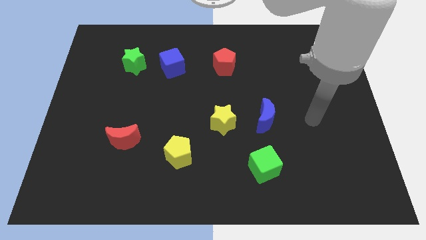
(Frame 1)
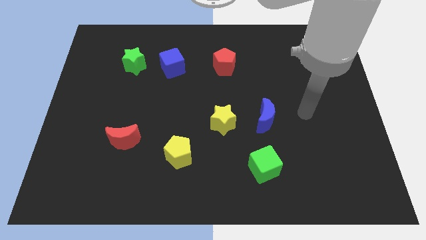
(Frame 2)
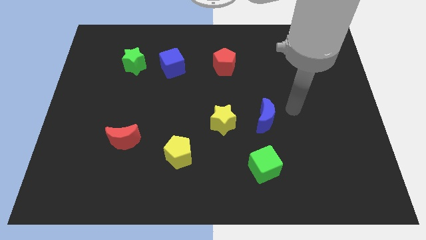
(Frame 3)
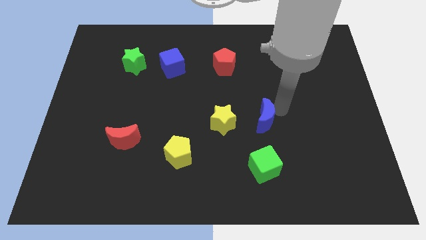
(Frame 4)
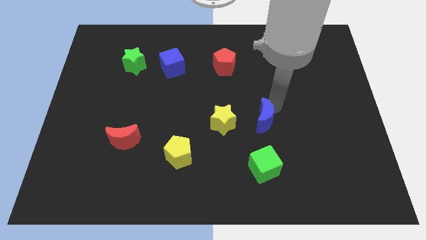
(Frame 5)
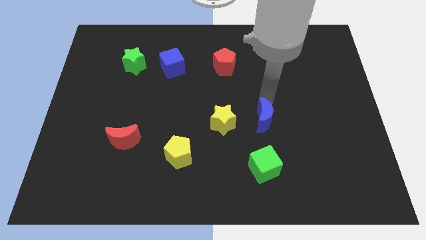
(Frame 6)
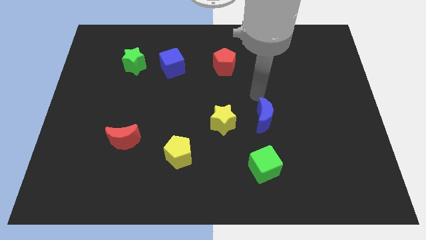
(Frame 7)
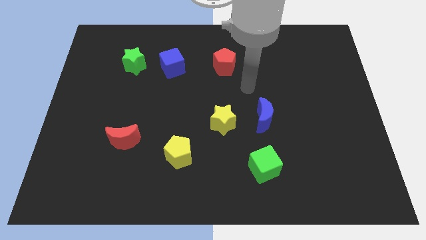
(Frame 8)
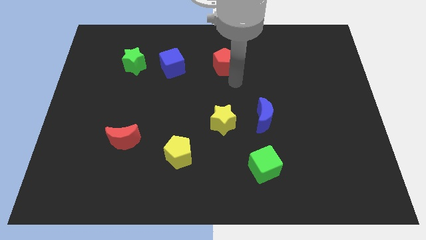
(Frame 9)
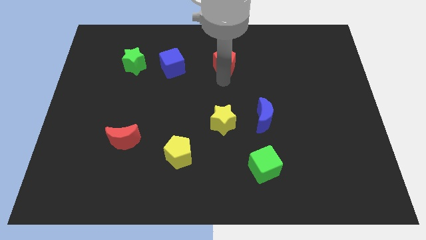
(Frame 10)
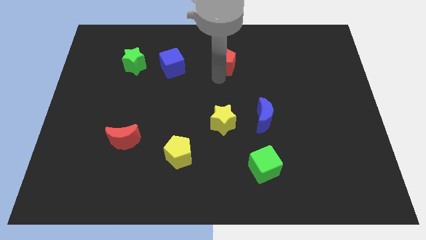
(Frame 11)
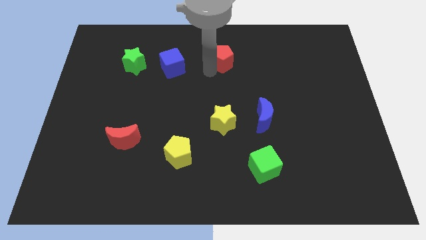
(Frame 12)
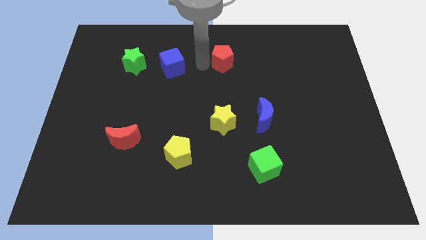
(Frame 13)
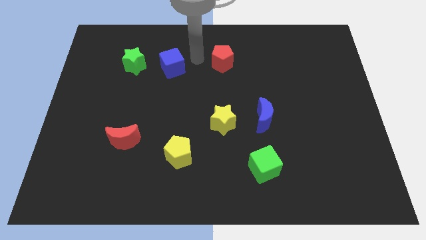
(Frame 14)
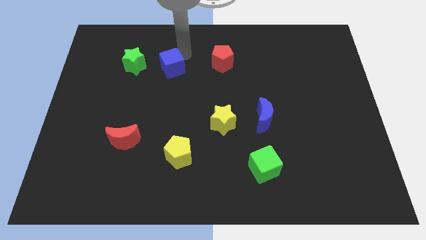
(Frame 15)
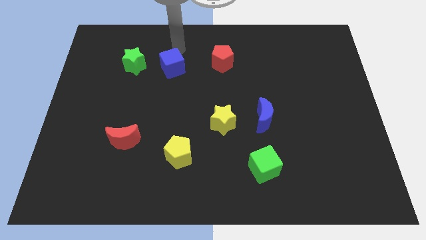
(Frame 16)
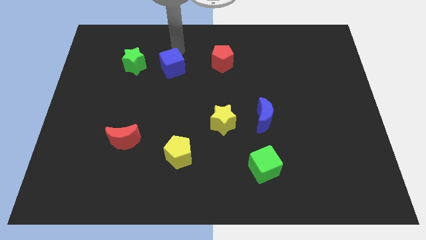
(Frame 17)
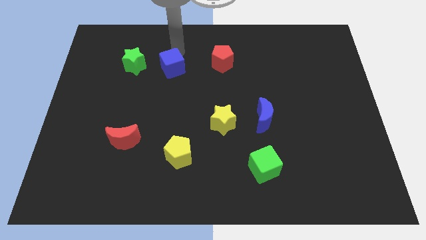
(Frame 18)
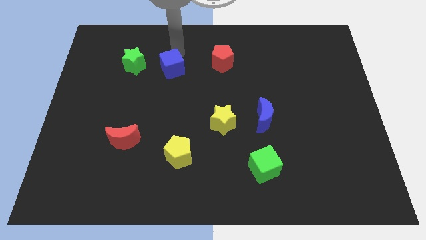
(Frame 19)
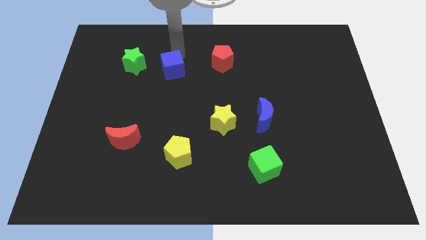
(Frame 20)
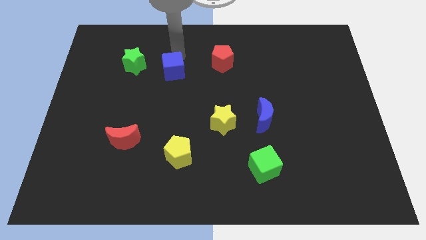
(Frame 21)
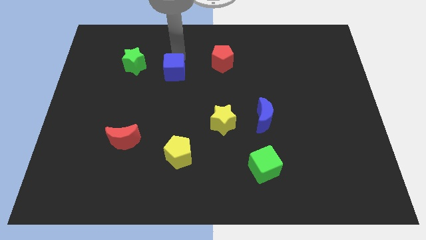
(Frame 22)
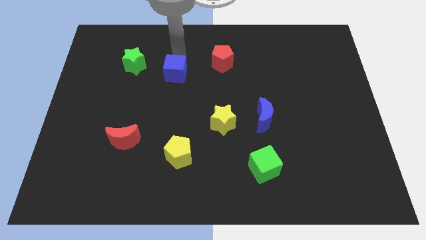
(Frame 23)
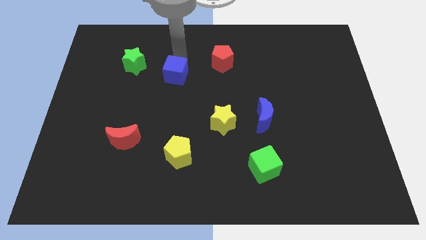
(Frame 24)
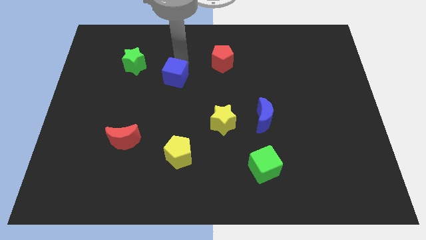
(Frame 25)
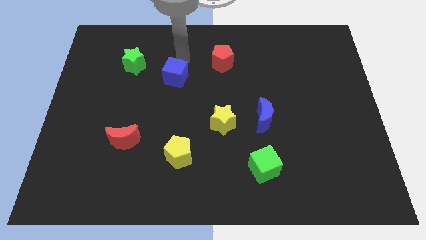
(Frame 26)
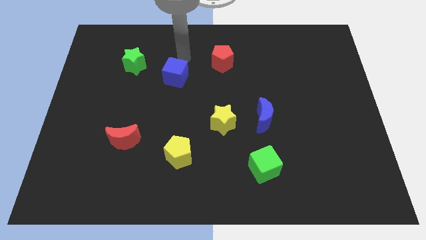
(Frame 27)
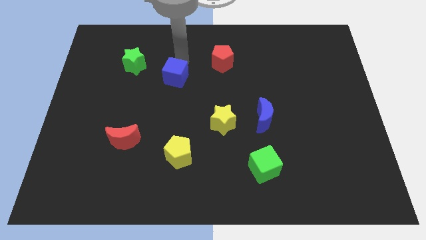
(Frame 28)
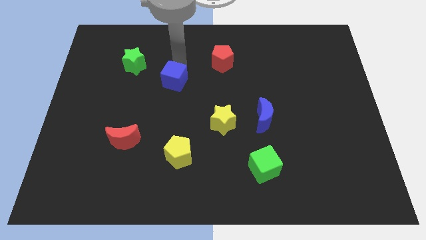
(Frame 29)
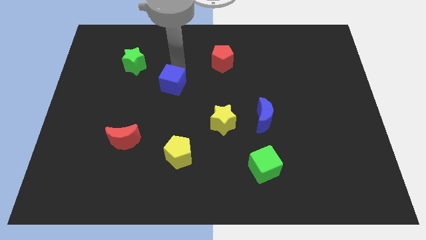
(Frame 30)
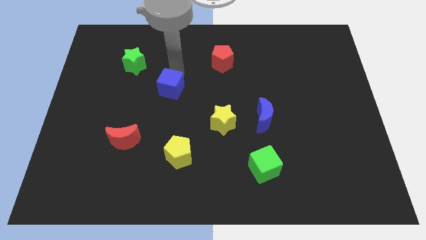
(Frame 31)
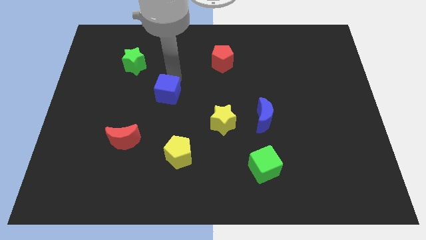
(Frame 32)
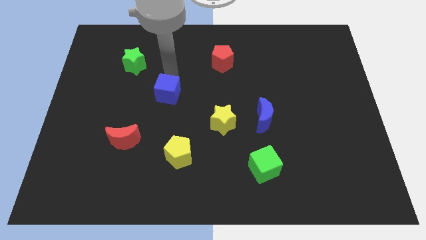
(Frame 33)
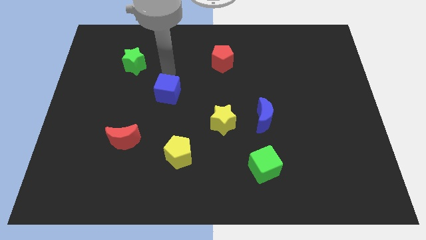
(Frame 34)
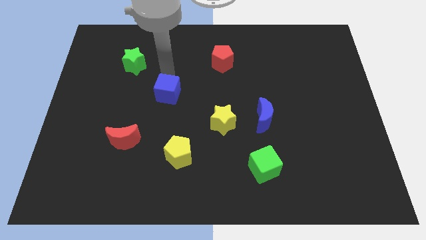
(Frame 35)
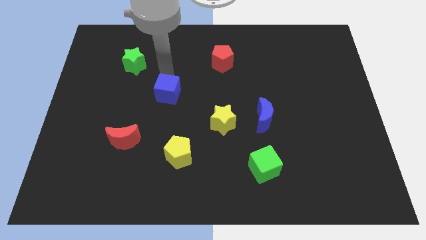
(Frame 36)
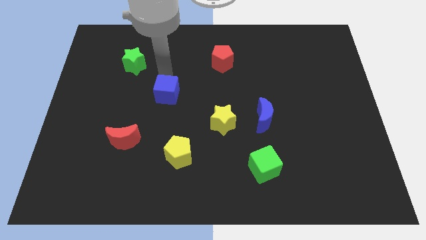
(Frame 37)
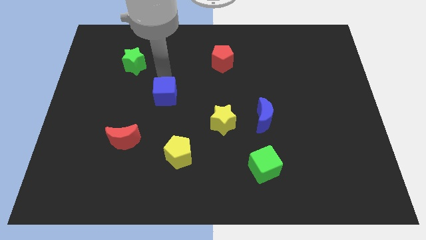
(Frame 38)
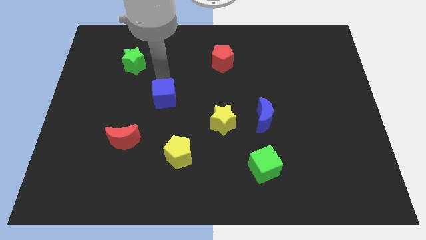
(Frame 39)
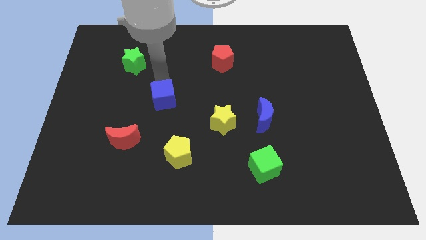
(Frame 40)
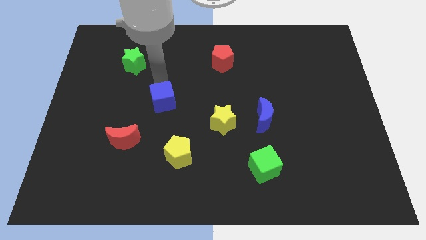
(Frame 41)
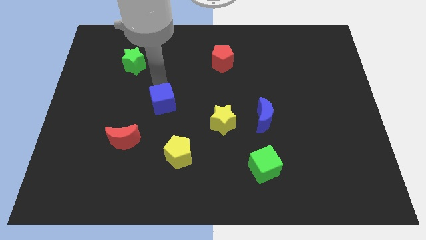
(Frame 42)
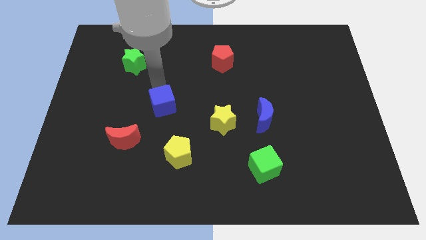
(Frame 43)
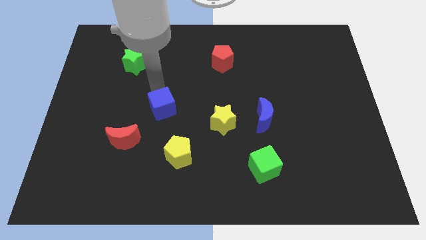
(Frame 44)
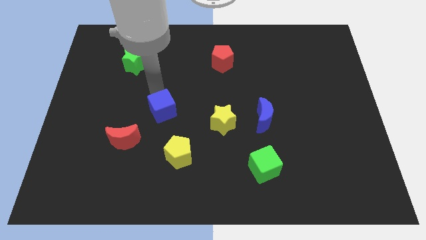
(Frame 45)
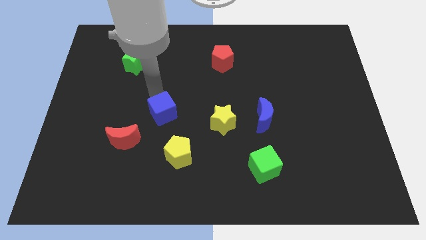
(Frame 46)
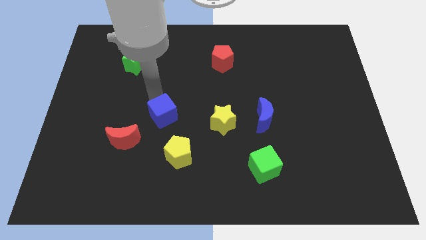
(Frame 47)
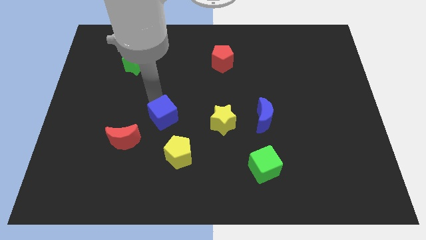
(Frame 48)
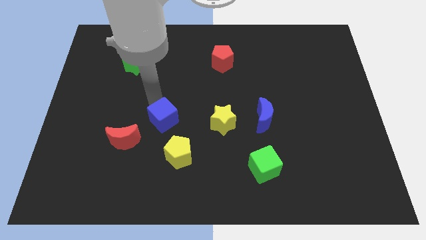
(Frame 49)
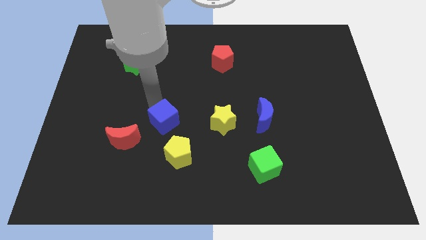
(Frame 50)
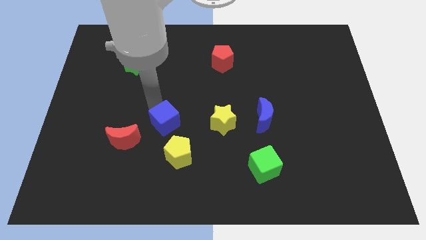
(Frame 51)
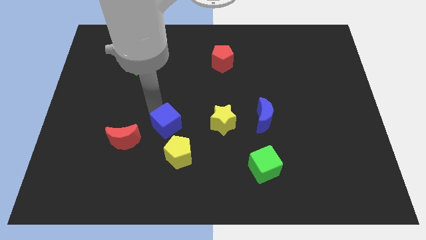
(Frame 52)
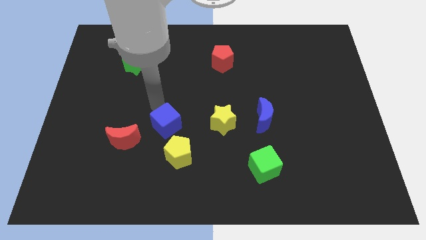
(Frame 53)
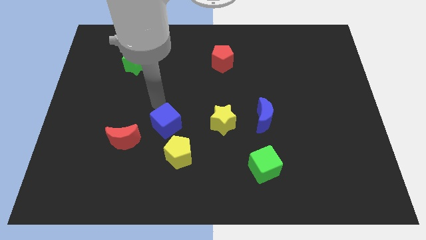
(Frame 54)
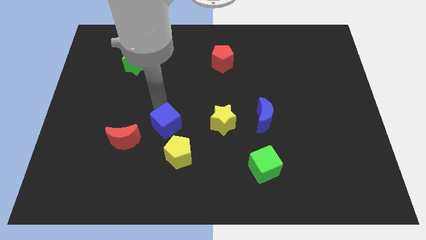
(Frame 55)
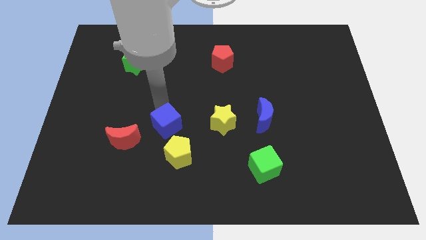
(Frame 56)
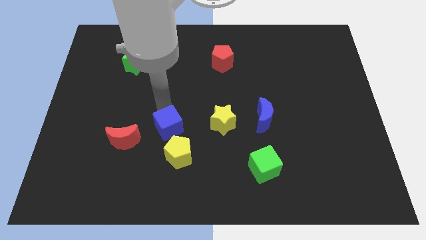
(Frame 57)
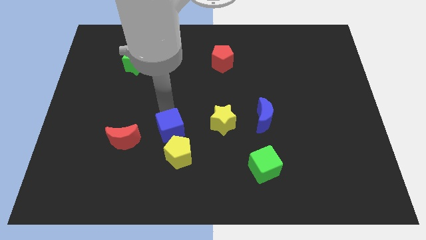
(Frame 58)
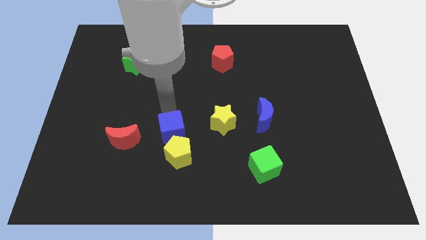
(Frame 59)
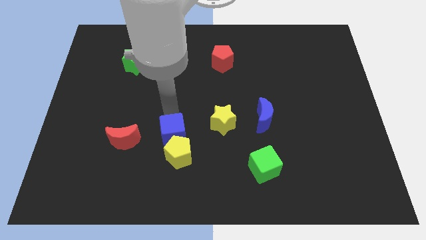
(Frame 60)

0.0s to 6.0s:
move the blue cube next to the yellow pentagon

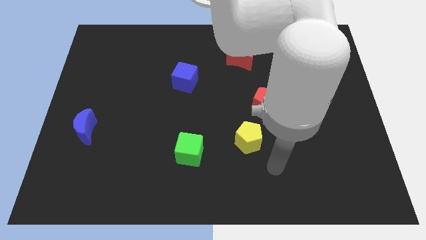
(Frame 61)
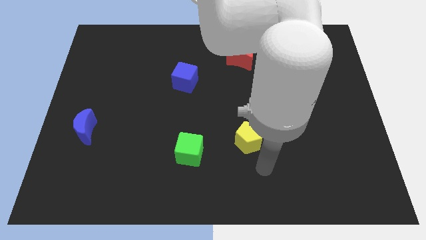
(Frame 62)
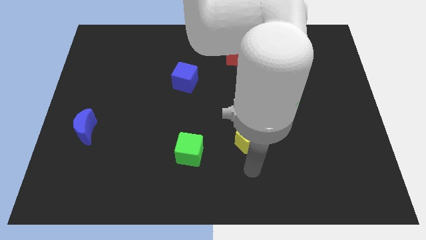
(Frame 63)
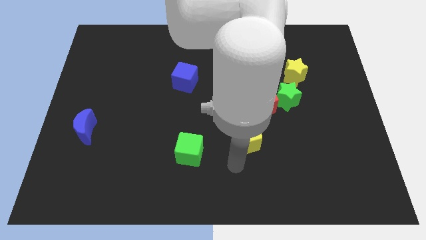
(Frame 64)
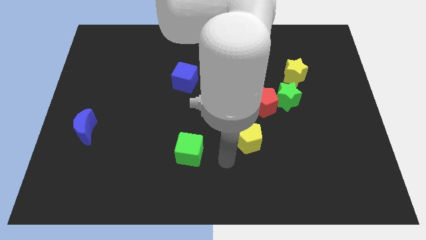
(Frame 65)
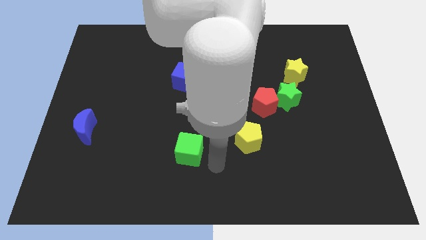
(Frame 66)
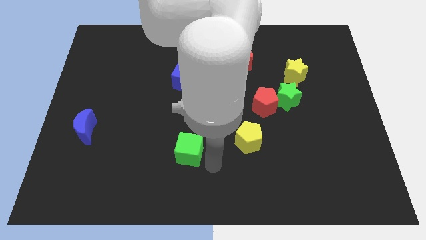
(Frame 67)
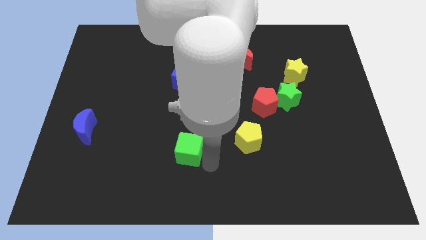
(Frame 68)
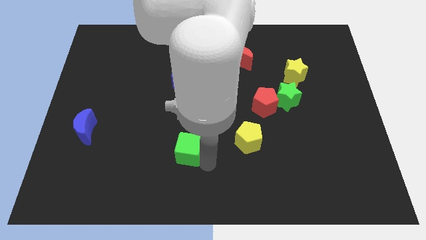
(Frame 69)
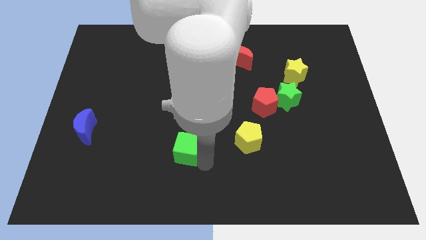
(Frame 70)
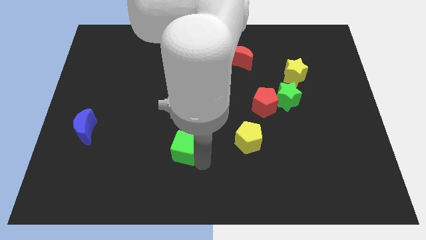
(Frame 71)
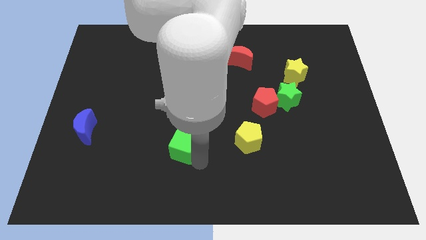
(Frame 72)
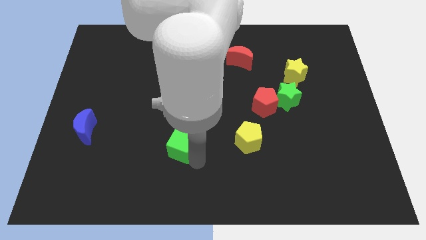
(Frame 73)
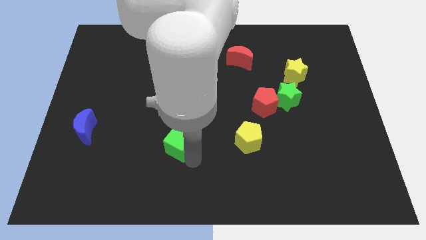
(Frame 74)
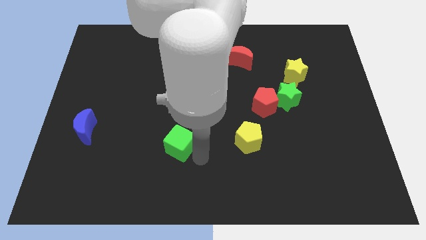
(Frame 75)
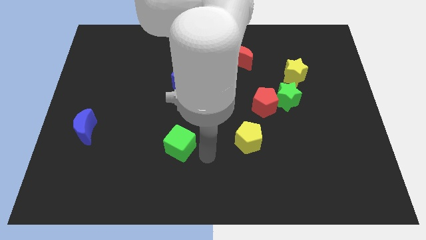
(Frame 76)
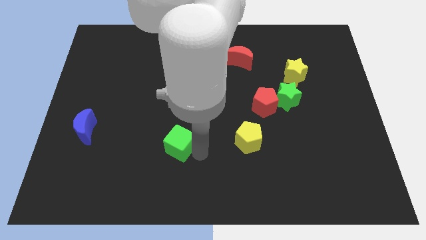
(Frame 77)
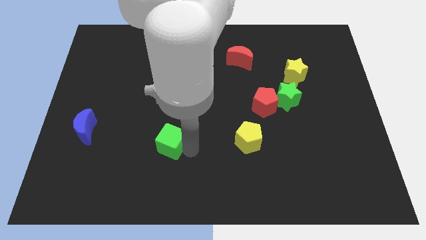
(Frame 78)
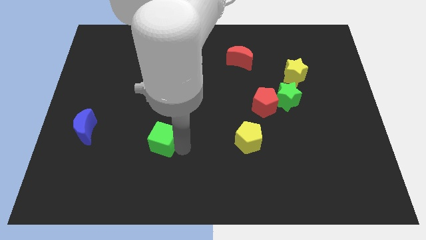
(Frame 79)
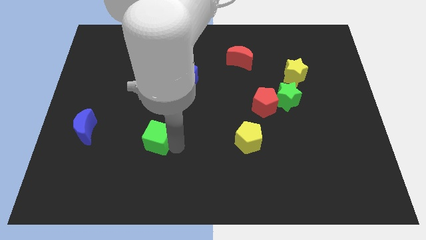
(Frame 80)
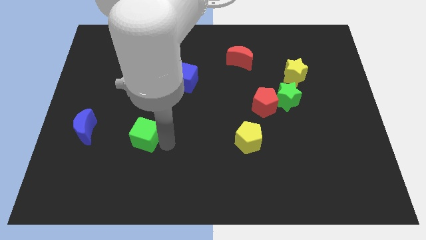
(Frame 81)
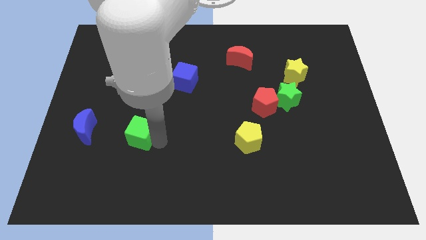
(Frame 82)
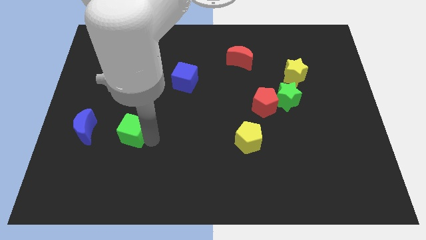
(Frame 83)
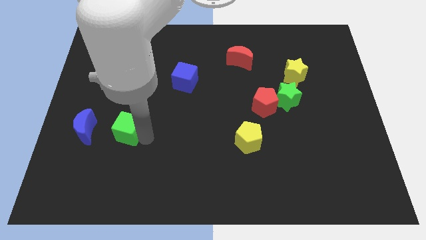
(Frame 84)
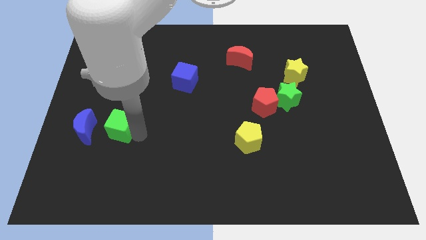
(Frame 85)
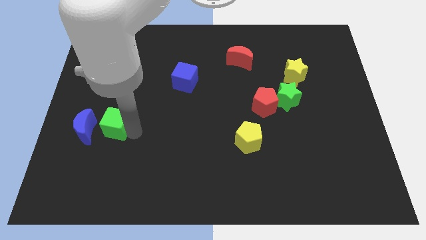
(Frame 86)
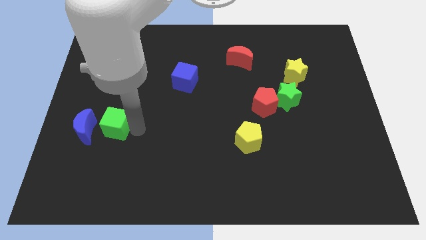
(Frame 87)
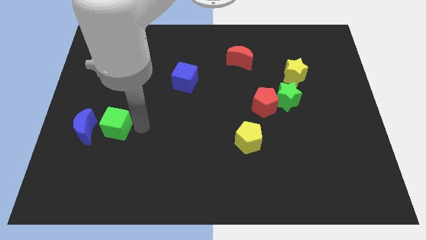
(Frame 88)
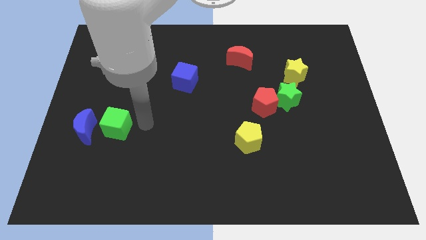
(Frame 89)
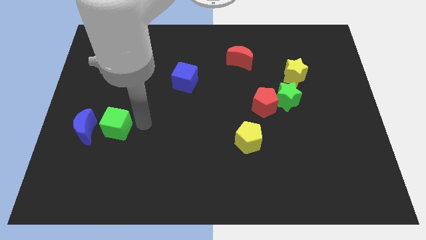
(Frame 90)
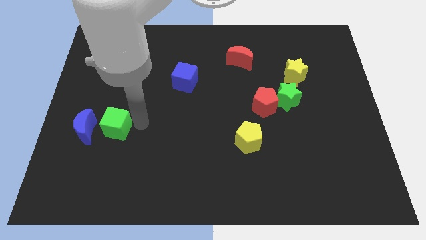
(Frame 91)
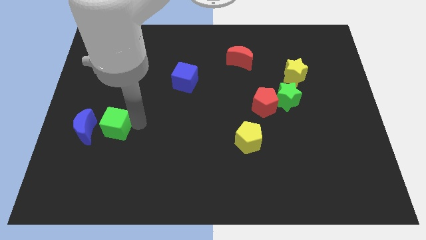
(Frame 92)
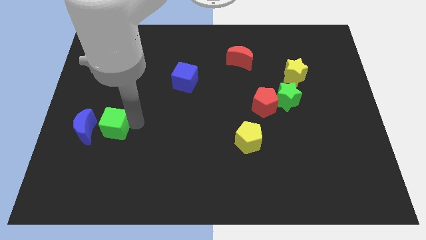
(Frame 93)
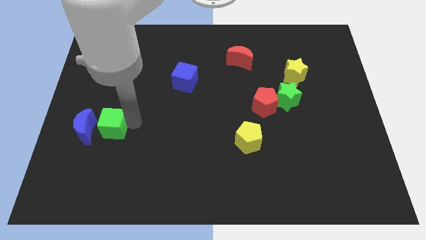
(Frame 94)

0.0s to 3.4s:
put the green cube close to the blue moon
